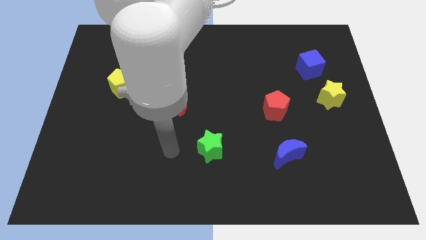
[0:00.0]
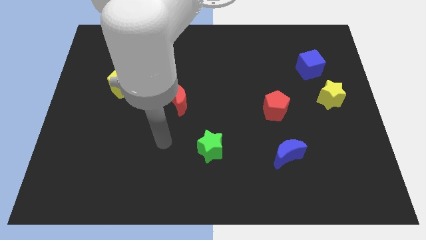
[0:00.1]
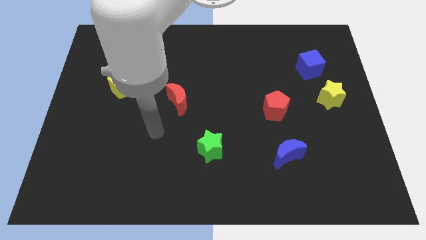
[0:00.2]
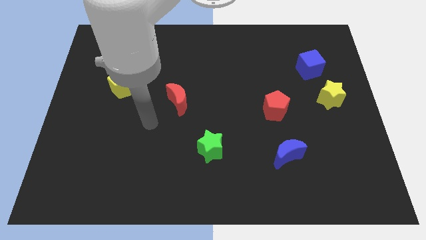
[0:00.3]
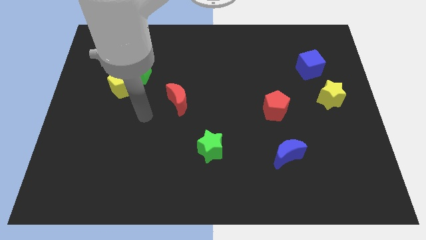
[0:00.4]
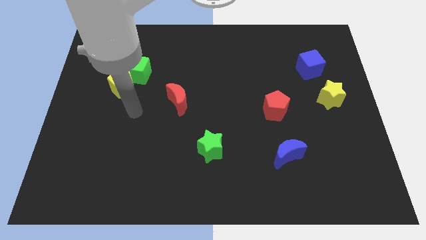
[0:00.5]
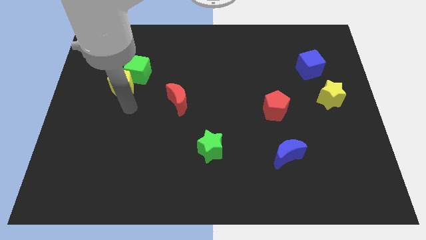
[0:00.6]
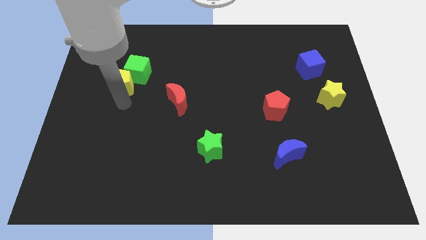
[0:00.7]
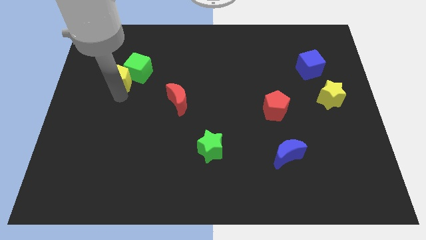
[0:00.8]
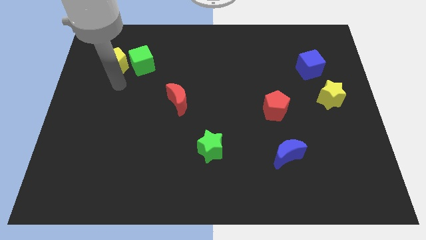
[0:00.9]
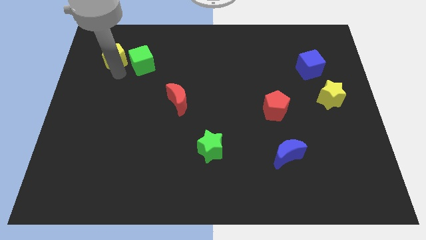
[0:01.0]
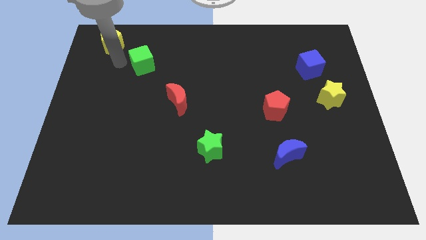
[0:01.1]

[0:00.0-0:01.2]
pull the green cube apart from the yellow pentagon

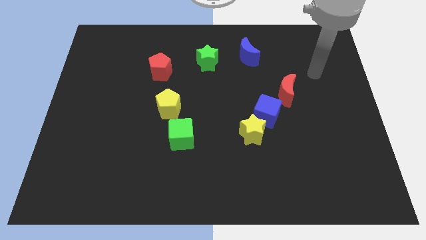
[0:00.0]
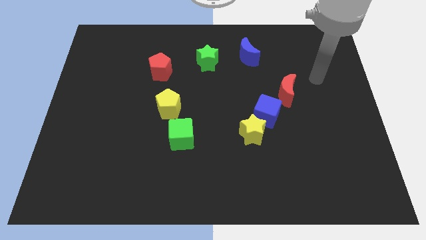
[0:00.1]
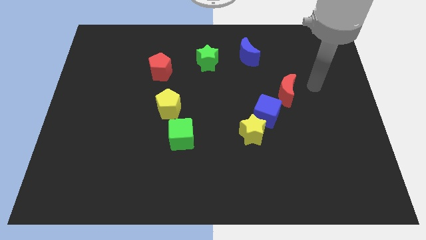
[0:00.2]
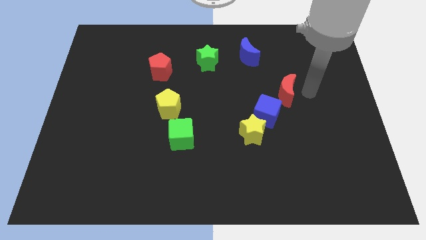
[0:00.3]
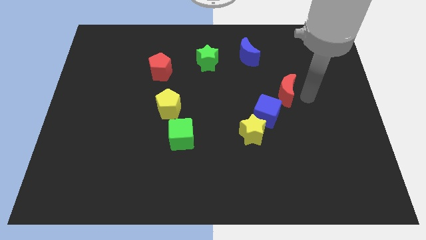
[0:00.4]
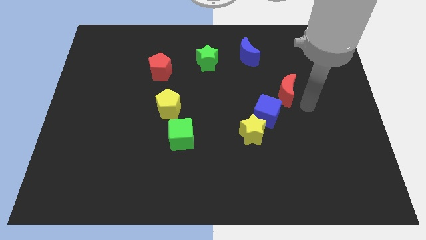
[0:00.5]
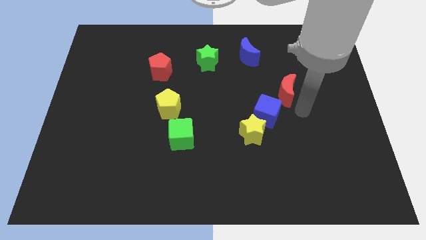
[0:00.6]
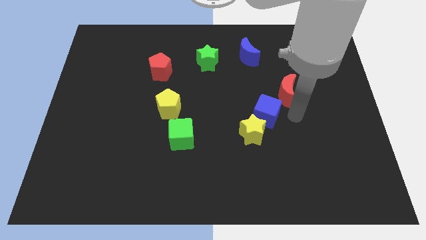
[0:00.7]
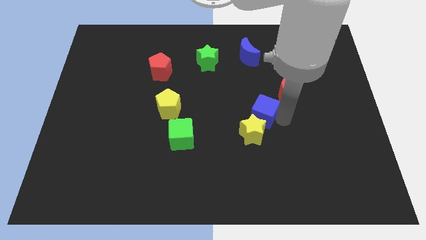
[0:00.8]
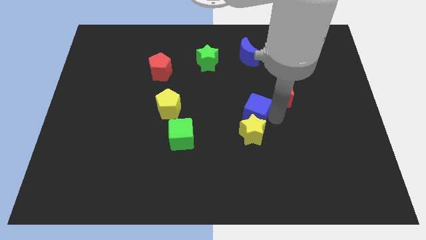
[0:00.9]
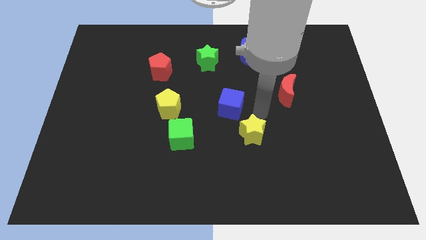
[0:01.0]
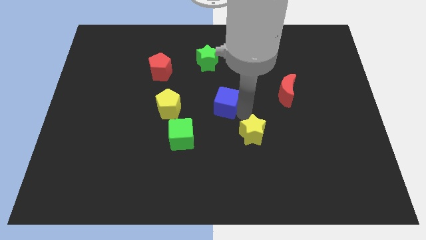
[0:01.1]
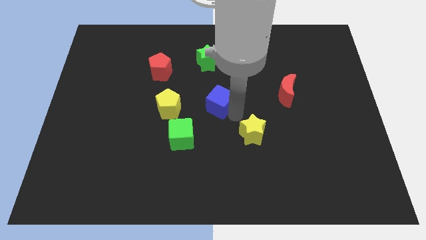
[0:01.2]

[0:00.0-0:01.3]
move the yellow star away from the blue cube

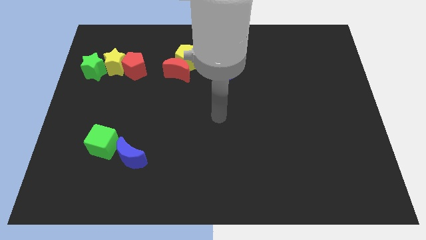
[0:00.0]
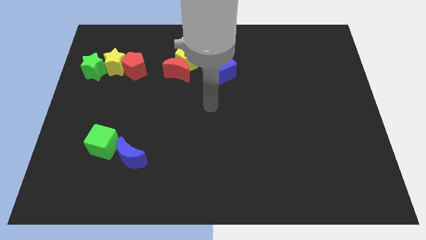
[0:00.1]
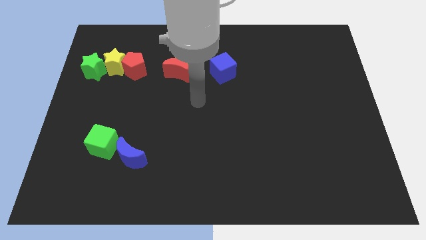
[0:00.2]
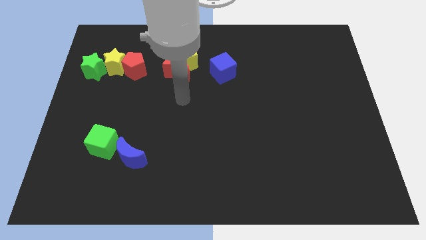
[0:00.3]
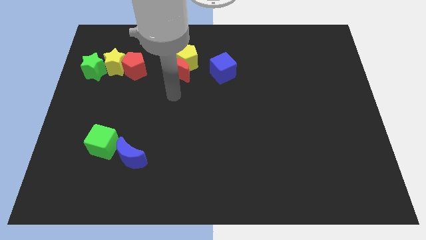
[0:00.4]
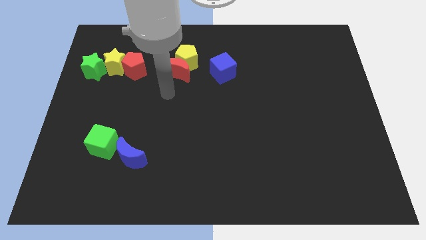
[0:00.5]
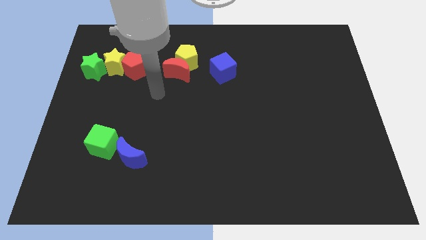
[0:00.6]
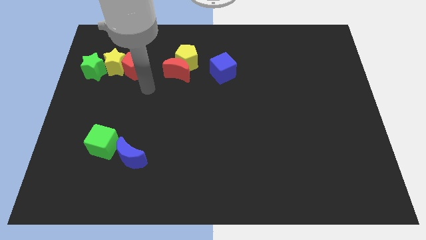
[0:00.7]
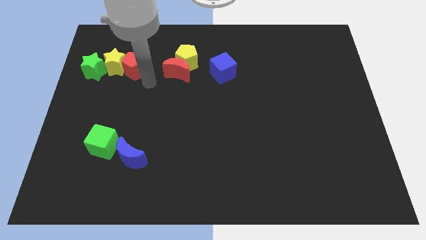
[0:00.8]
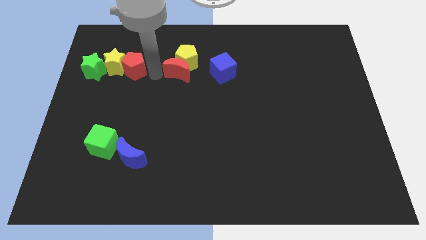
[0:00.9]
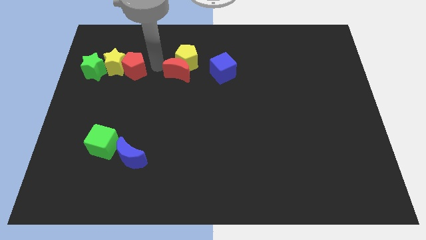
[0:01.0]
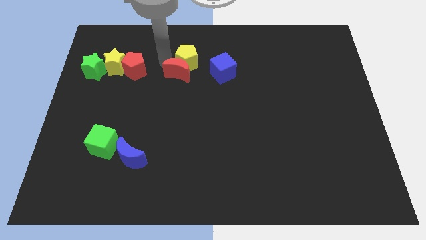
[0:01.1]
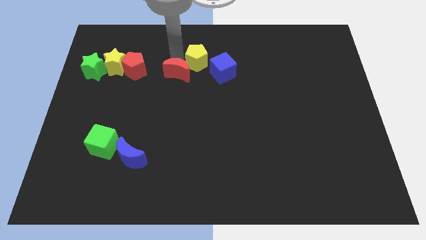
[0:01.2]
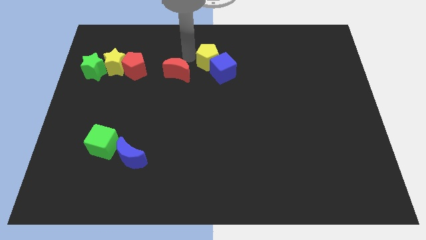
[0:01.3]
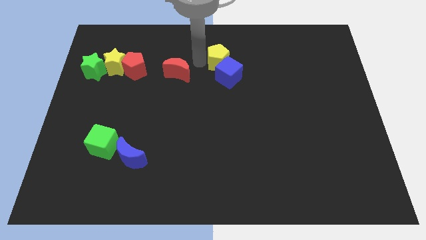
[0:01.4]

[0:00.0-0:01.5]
pull the red moon apart from the yellow pentagon

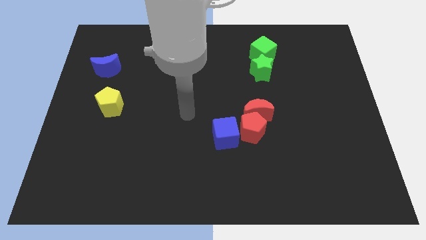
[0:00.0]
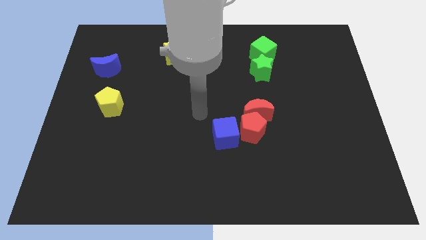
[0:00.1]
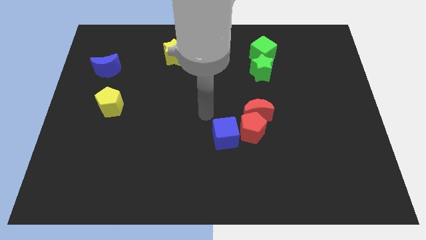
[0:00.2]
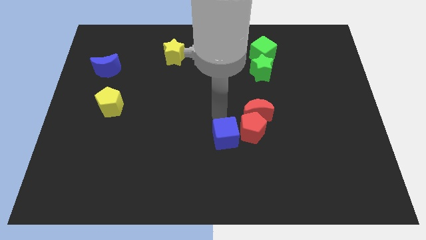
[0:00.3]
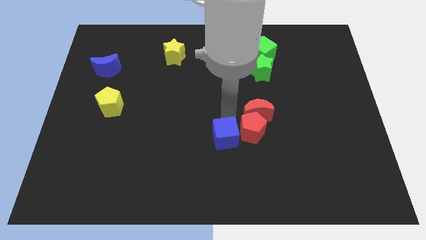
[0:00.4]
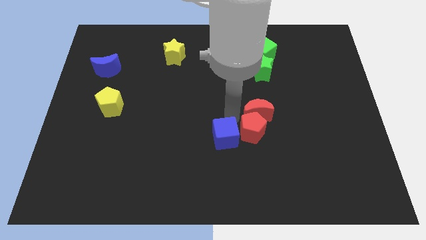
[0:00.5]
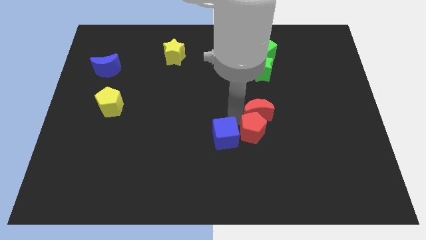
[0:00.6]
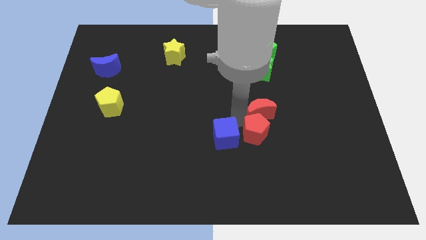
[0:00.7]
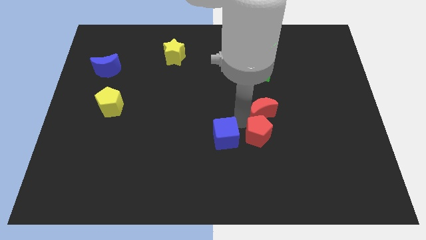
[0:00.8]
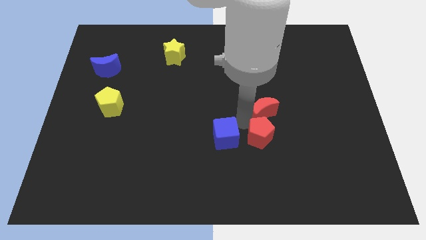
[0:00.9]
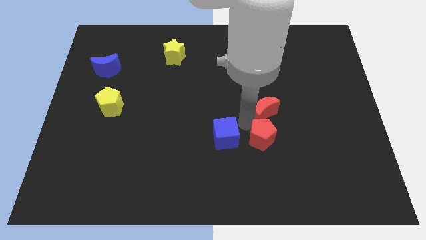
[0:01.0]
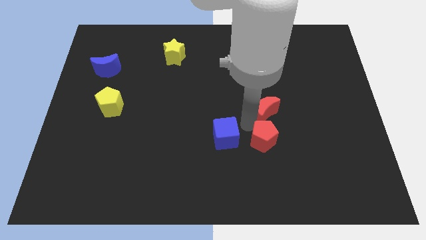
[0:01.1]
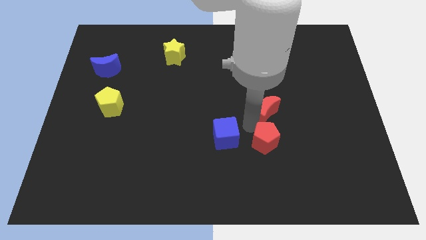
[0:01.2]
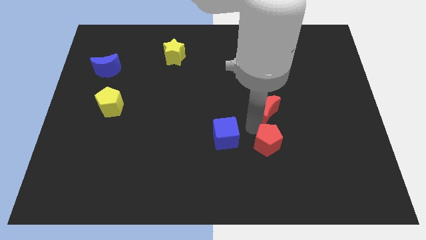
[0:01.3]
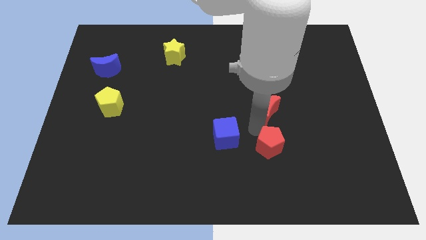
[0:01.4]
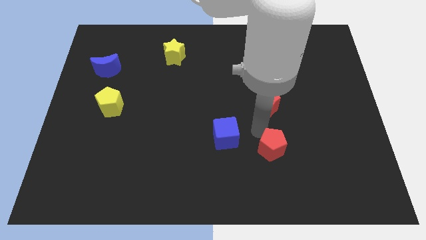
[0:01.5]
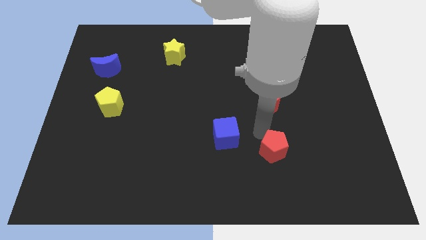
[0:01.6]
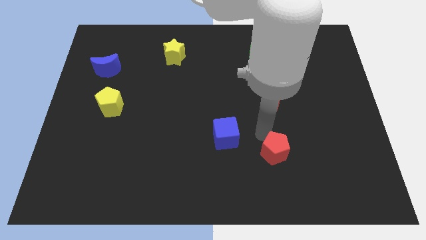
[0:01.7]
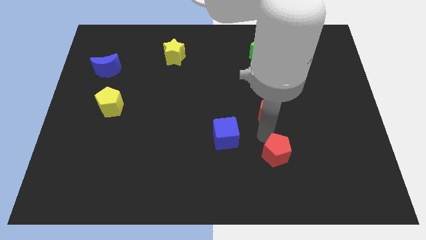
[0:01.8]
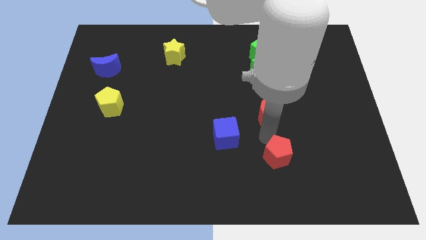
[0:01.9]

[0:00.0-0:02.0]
separate the red pentagon from the red moon and blue cube

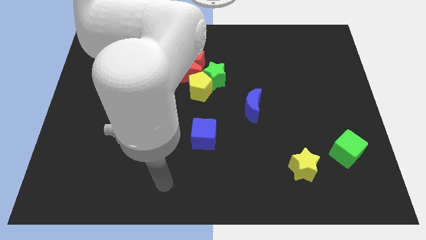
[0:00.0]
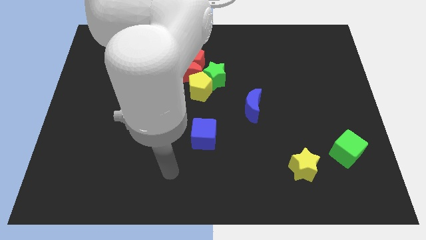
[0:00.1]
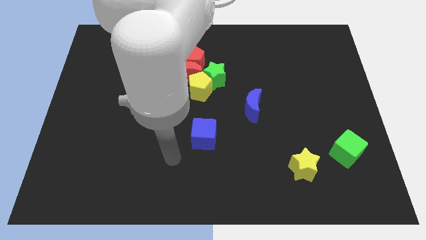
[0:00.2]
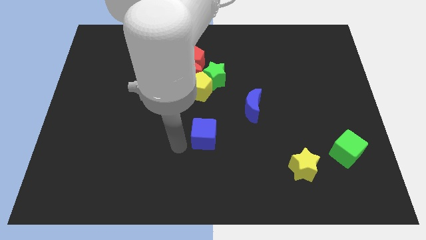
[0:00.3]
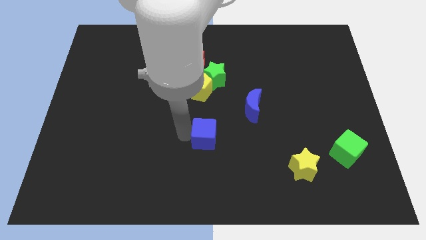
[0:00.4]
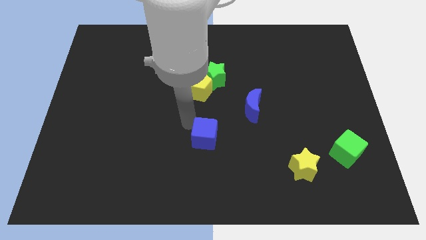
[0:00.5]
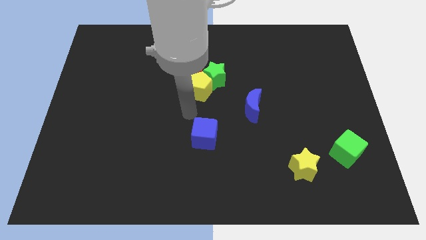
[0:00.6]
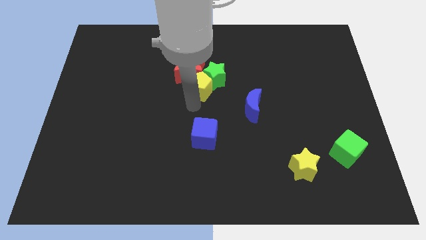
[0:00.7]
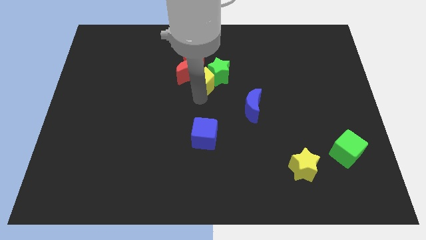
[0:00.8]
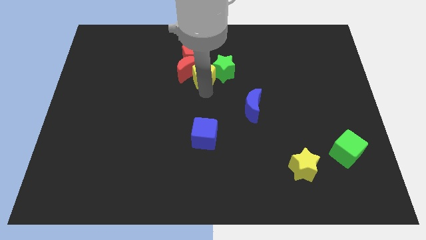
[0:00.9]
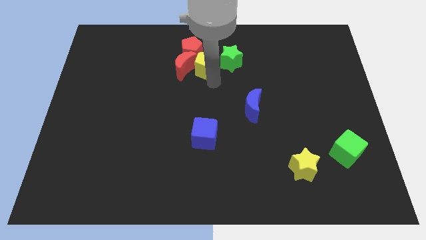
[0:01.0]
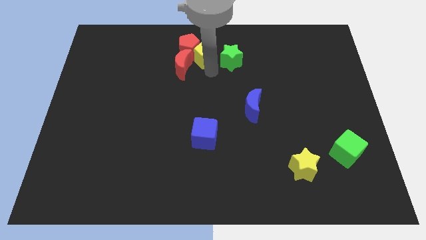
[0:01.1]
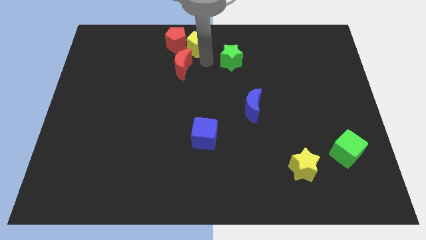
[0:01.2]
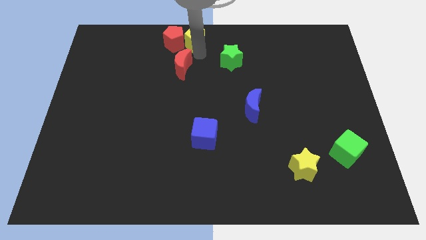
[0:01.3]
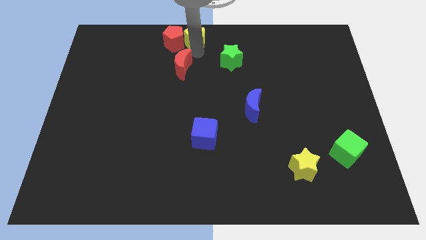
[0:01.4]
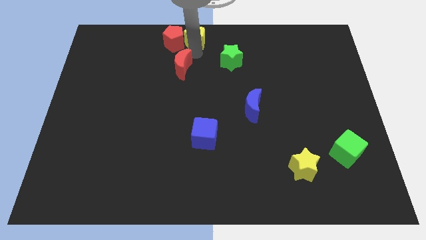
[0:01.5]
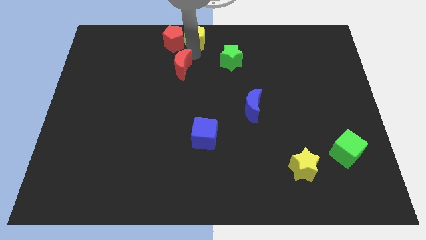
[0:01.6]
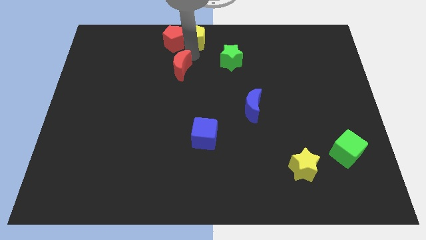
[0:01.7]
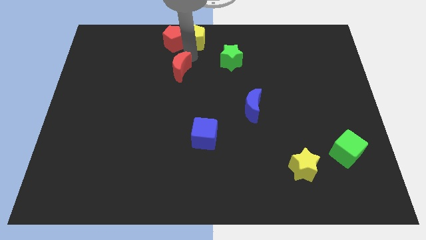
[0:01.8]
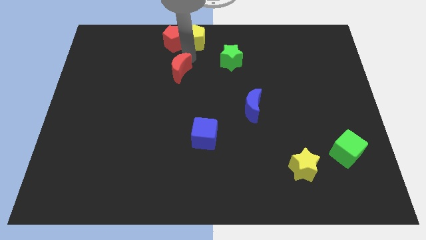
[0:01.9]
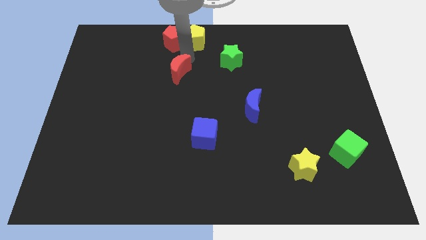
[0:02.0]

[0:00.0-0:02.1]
separate the red moon from the group

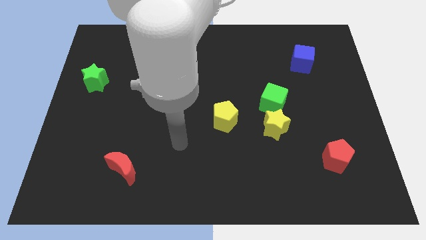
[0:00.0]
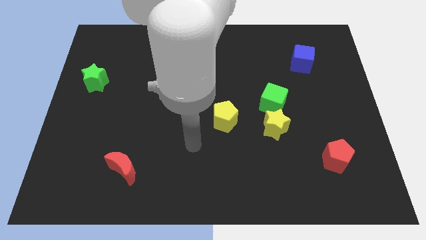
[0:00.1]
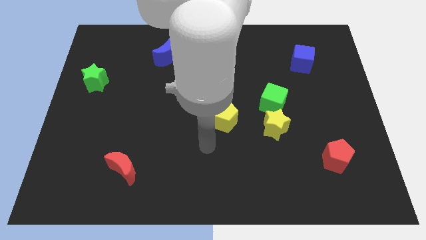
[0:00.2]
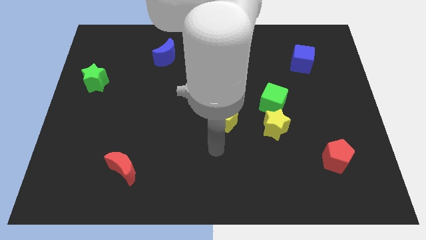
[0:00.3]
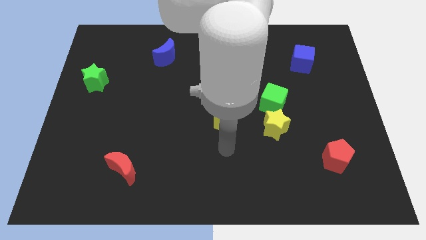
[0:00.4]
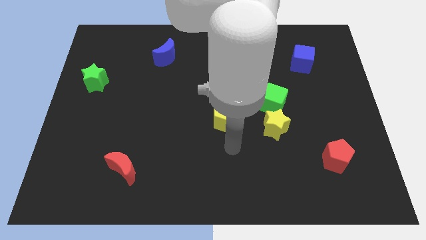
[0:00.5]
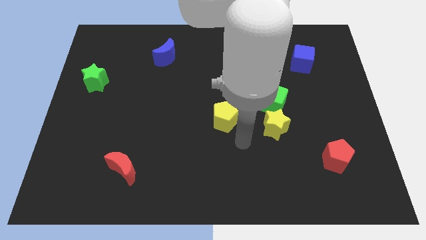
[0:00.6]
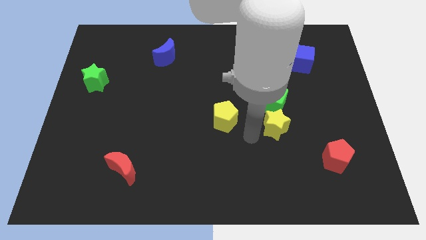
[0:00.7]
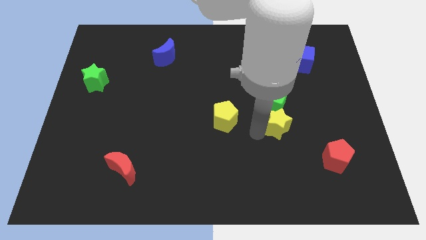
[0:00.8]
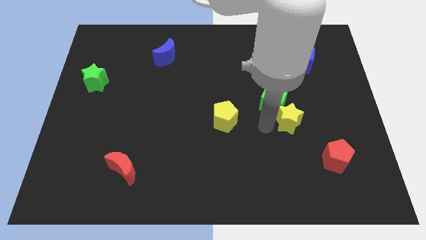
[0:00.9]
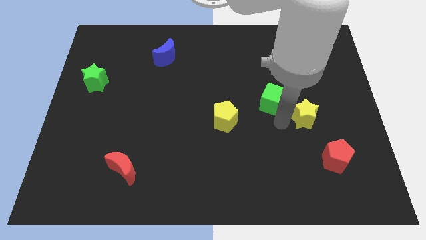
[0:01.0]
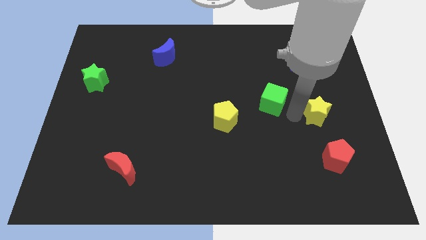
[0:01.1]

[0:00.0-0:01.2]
pull the green cube apart from the yellow star
